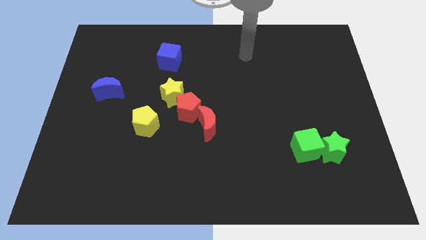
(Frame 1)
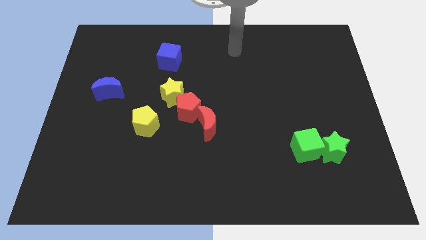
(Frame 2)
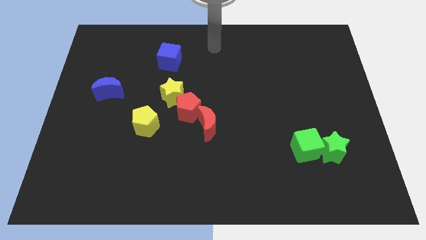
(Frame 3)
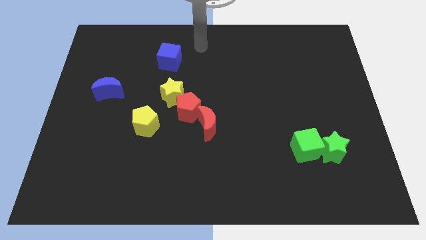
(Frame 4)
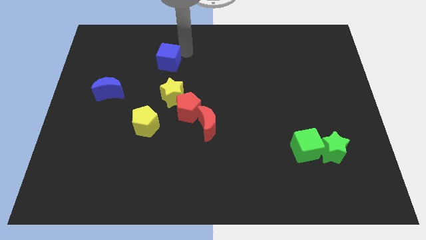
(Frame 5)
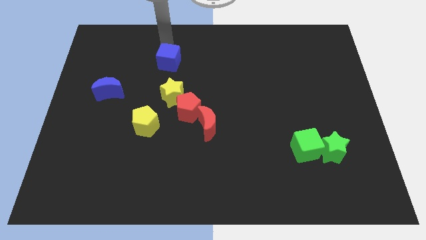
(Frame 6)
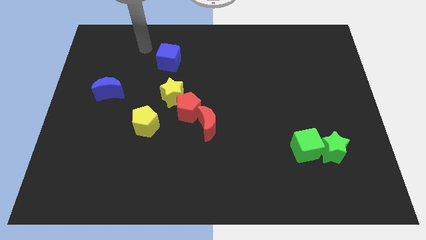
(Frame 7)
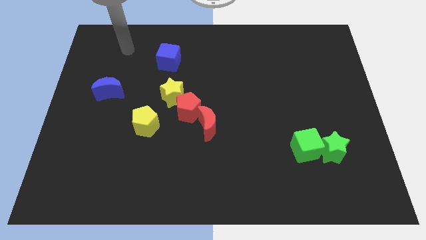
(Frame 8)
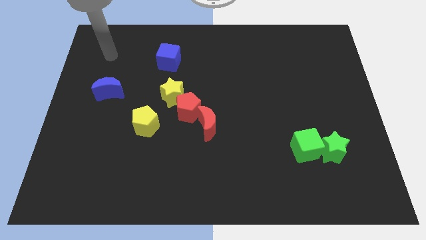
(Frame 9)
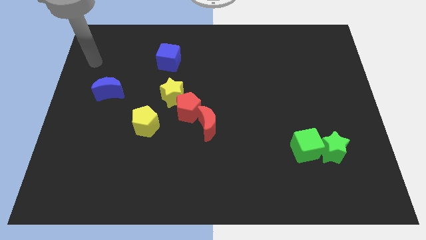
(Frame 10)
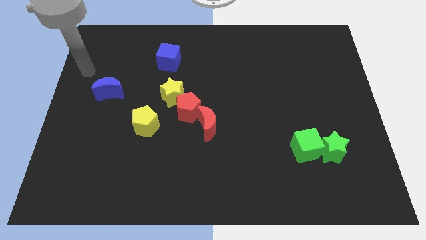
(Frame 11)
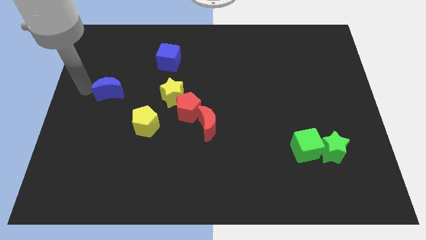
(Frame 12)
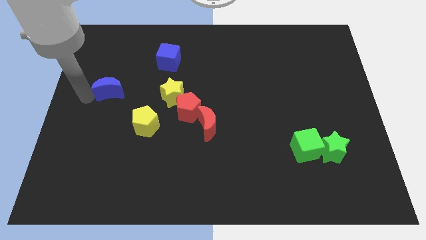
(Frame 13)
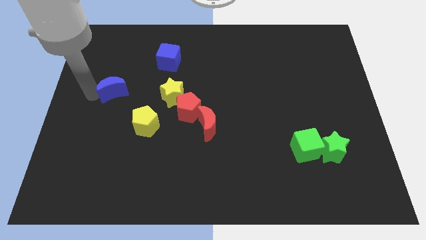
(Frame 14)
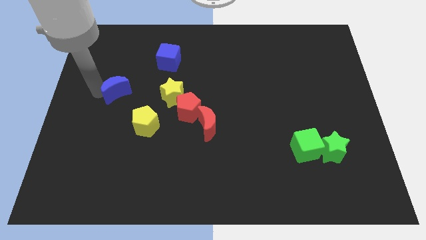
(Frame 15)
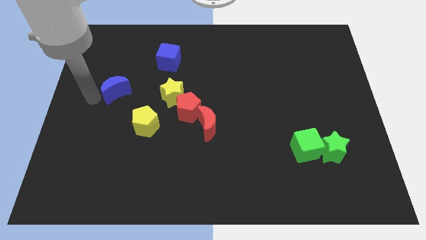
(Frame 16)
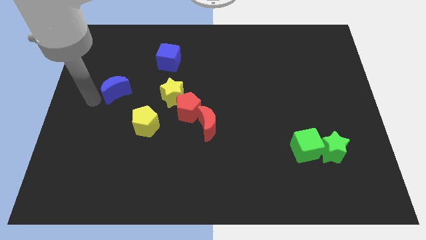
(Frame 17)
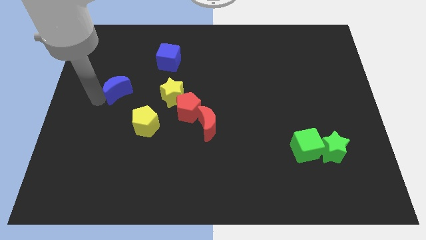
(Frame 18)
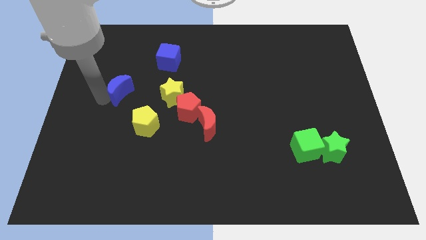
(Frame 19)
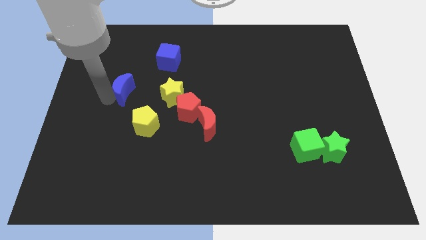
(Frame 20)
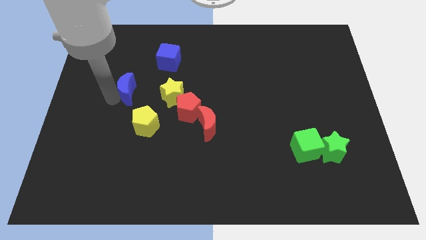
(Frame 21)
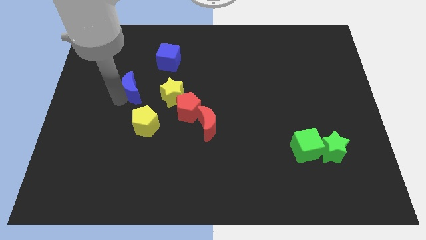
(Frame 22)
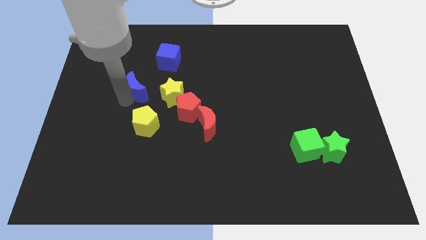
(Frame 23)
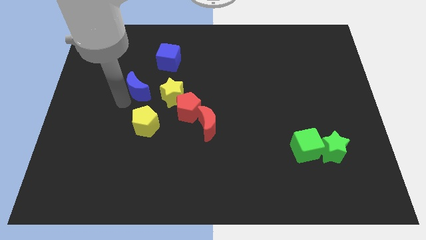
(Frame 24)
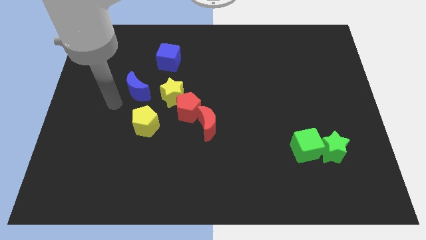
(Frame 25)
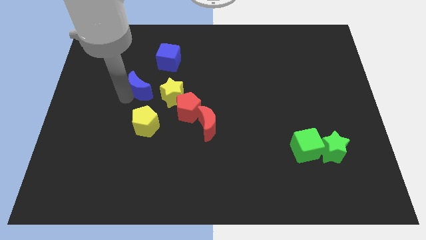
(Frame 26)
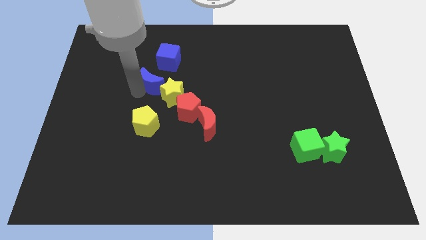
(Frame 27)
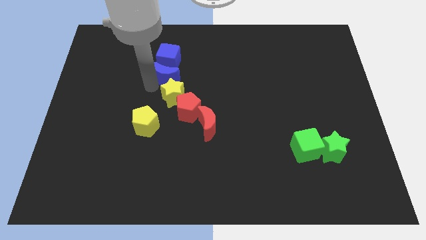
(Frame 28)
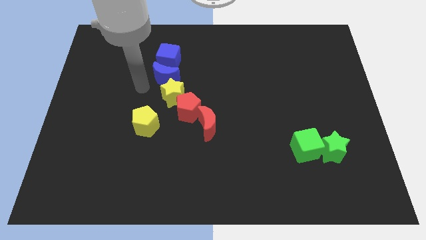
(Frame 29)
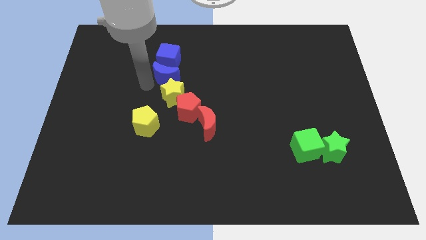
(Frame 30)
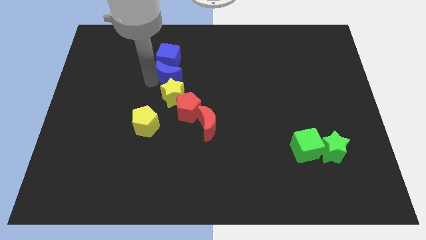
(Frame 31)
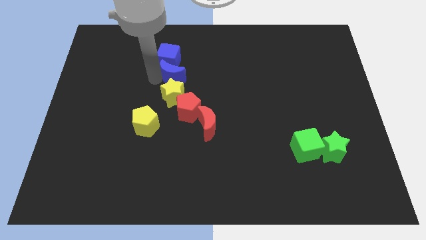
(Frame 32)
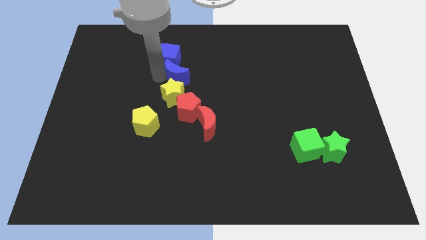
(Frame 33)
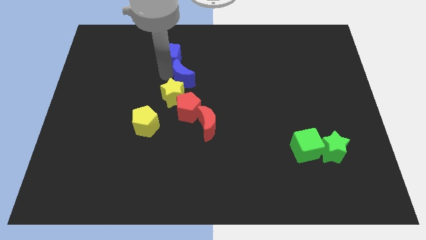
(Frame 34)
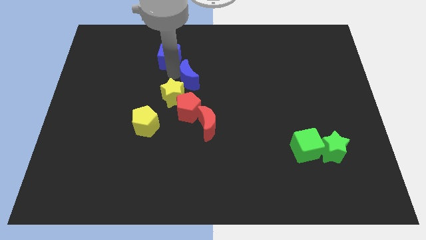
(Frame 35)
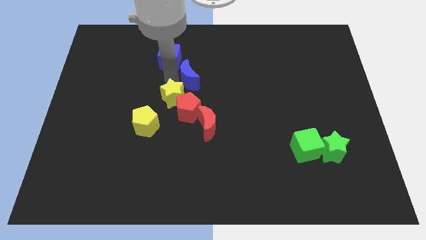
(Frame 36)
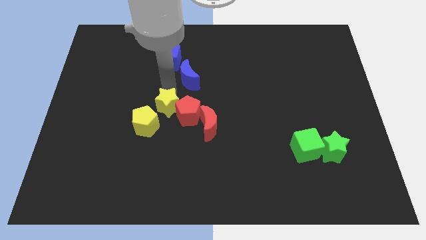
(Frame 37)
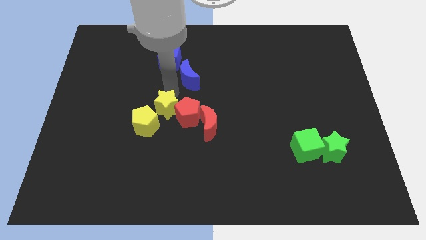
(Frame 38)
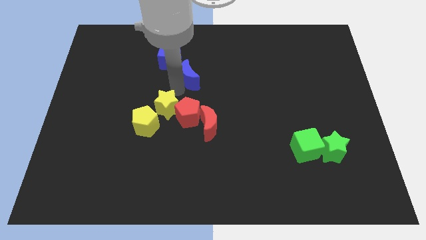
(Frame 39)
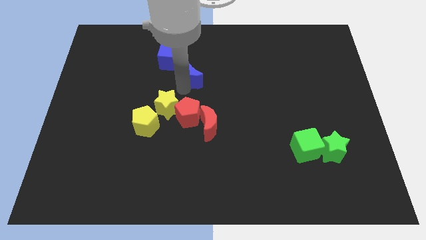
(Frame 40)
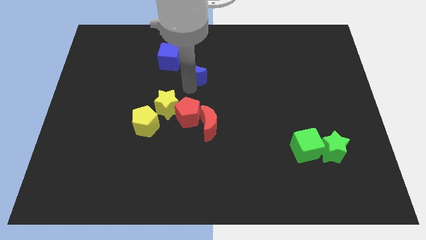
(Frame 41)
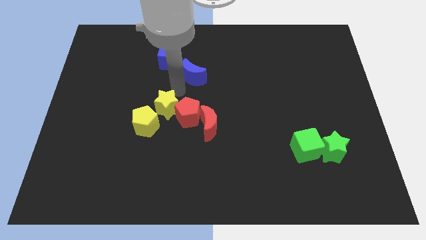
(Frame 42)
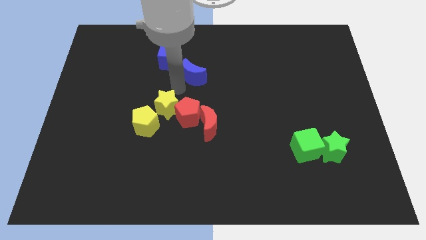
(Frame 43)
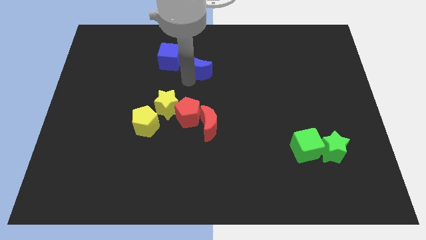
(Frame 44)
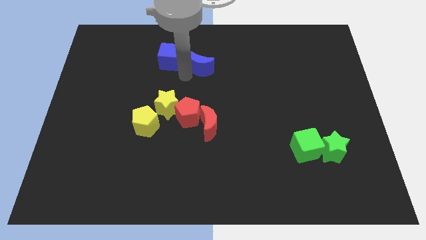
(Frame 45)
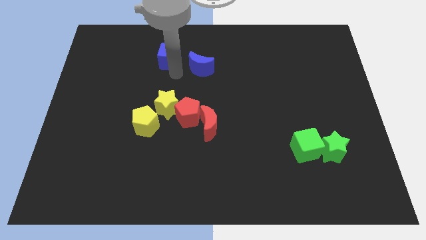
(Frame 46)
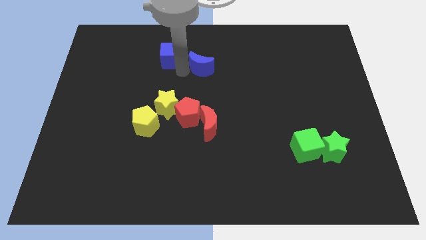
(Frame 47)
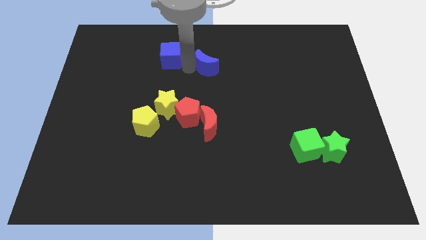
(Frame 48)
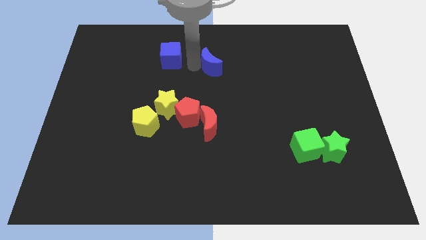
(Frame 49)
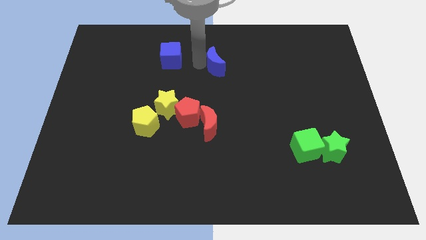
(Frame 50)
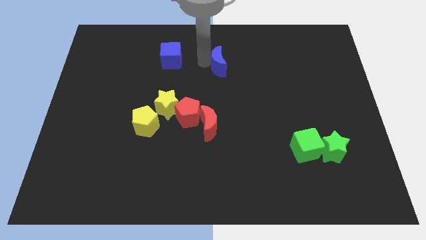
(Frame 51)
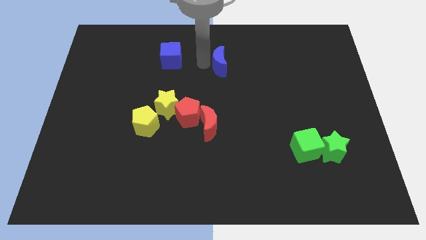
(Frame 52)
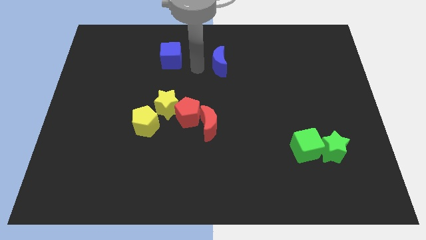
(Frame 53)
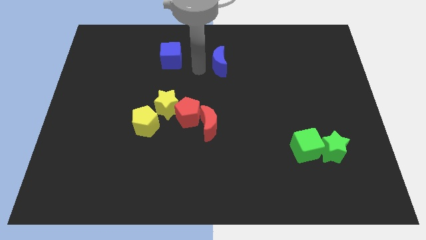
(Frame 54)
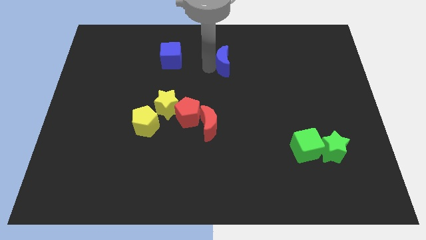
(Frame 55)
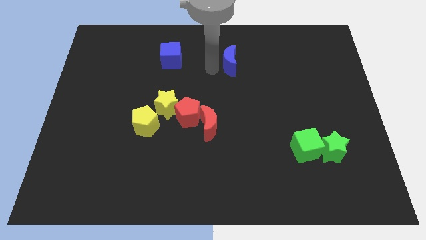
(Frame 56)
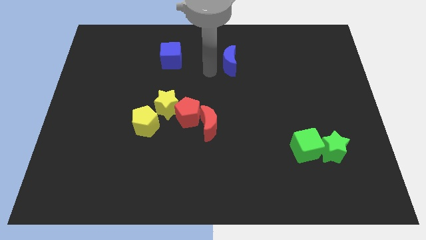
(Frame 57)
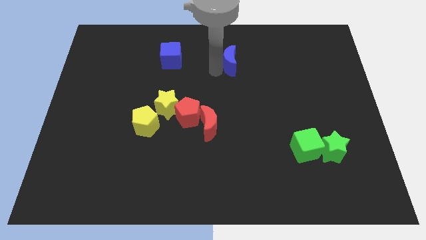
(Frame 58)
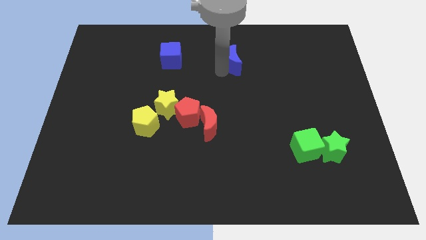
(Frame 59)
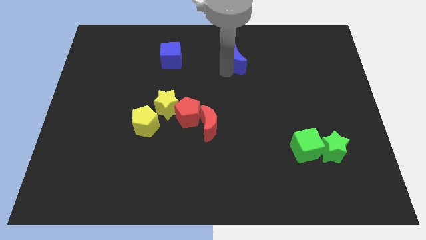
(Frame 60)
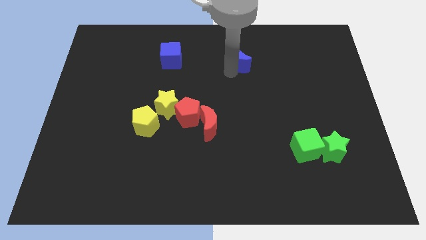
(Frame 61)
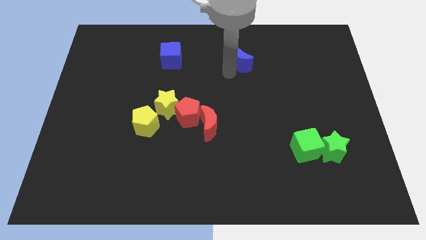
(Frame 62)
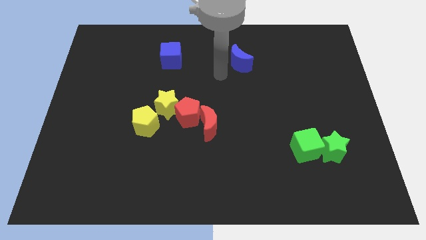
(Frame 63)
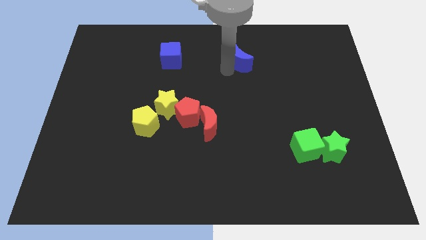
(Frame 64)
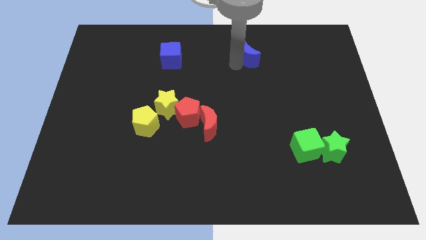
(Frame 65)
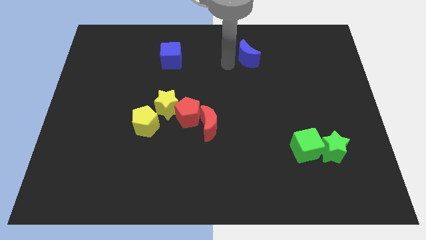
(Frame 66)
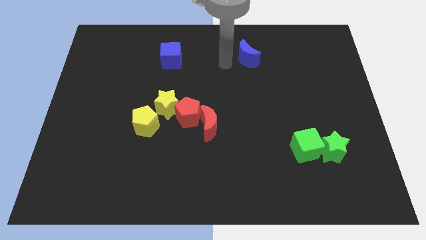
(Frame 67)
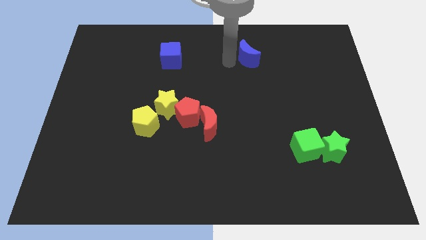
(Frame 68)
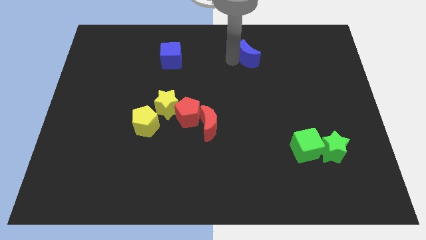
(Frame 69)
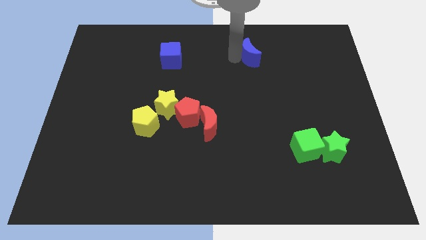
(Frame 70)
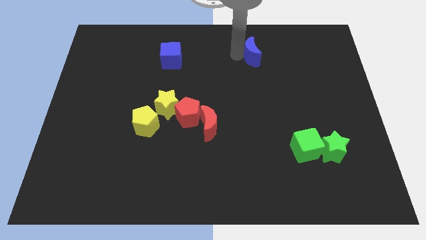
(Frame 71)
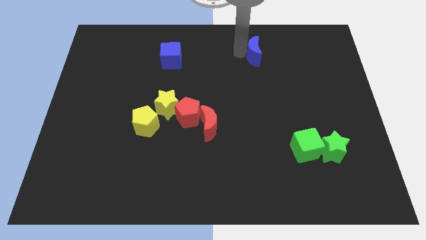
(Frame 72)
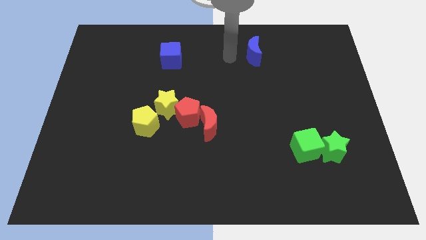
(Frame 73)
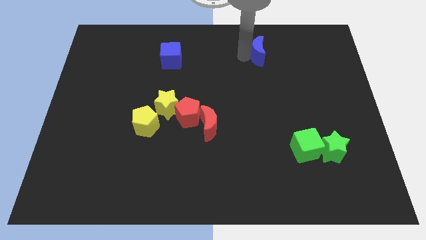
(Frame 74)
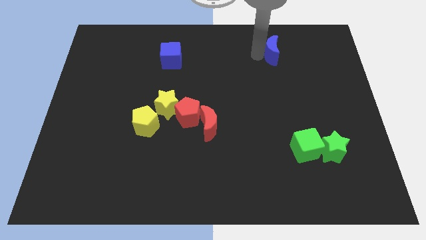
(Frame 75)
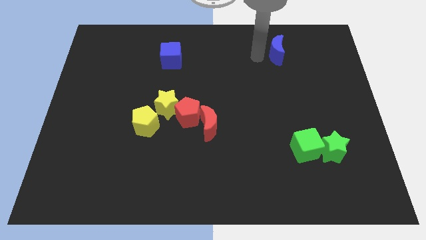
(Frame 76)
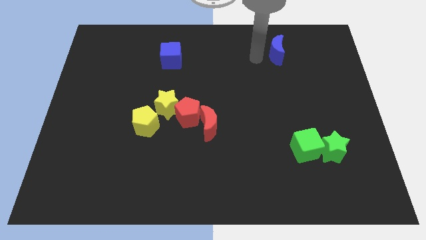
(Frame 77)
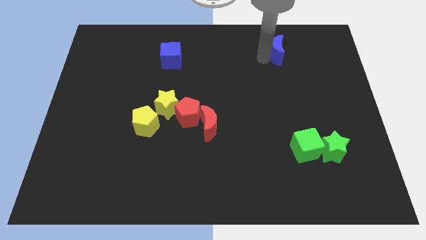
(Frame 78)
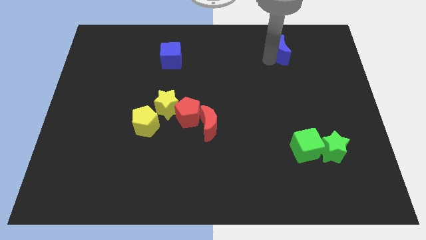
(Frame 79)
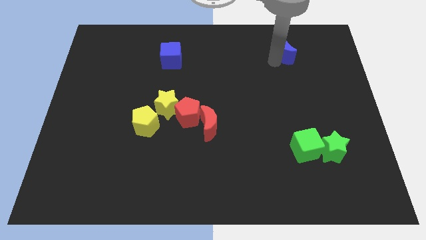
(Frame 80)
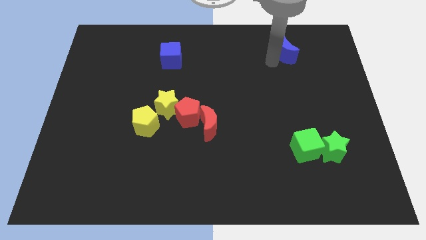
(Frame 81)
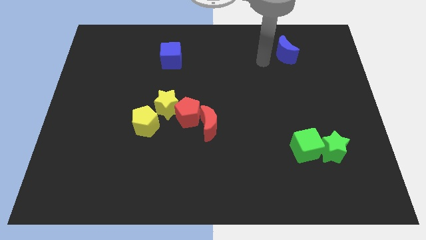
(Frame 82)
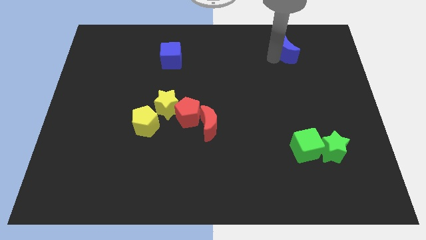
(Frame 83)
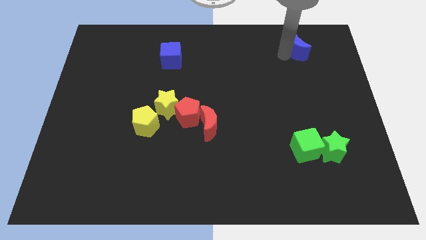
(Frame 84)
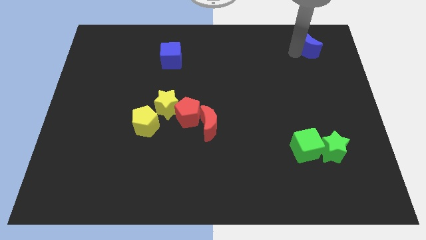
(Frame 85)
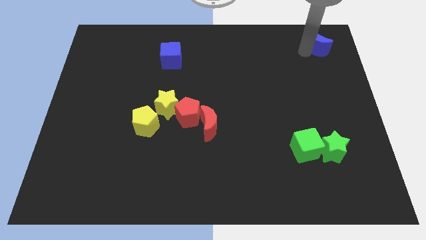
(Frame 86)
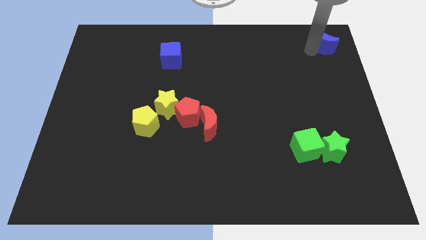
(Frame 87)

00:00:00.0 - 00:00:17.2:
move the blue moon to the top right
